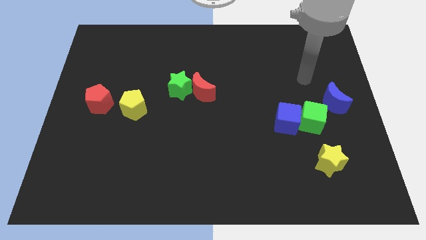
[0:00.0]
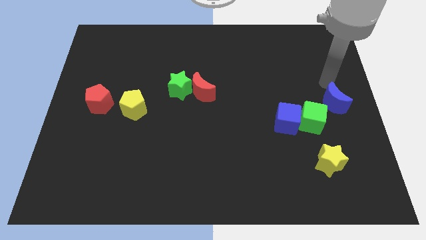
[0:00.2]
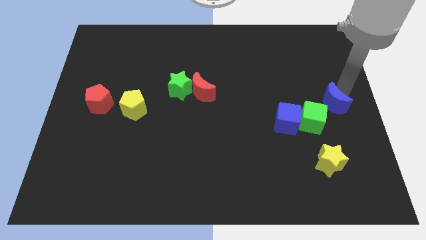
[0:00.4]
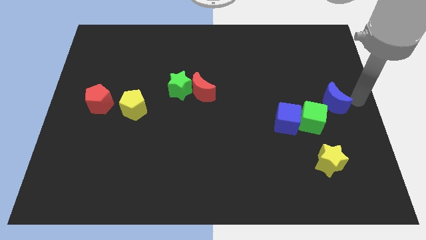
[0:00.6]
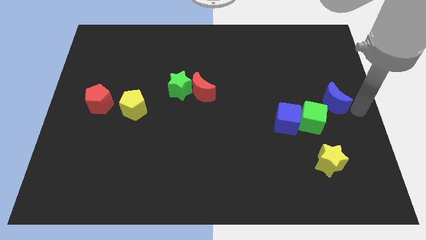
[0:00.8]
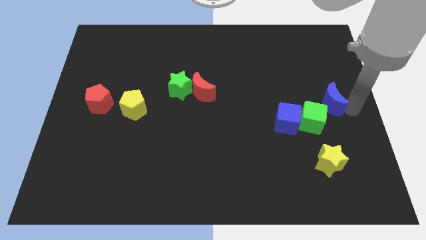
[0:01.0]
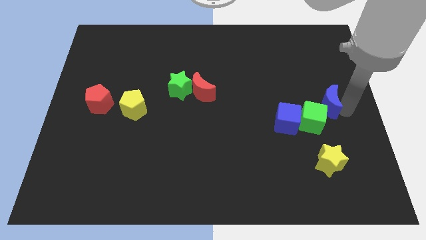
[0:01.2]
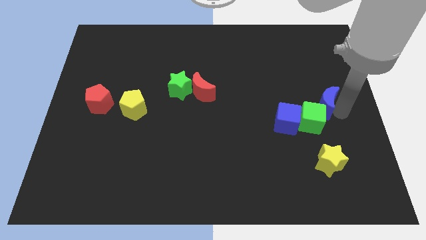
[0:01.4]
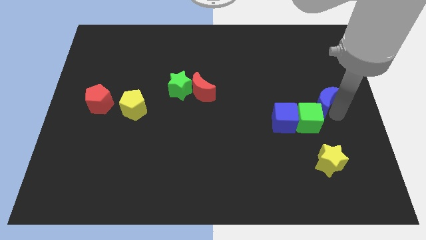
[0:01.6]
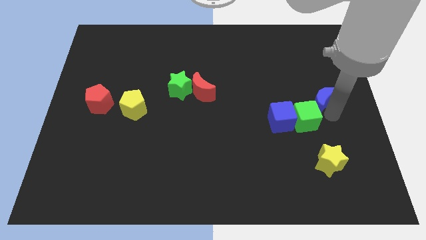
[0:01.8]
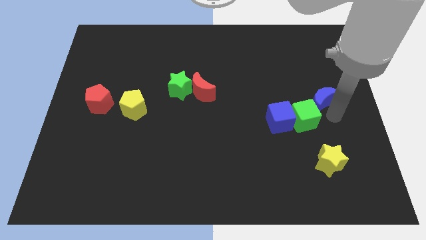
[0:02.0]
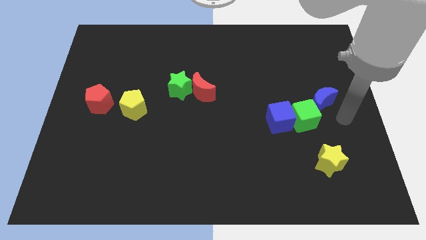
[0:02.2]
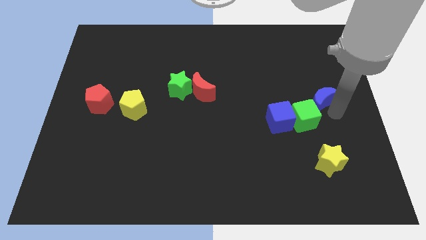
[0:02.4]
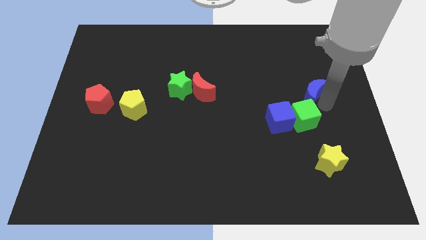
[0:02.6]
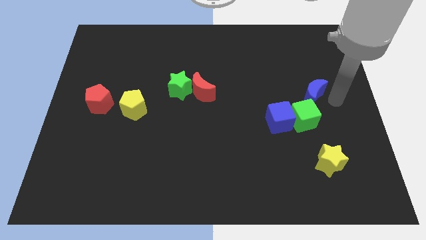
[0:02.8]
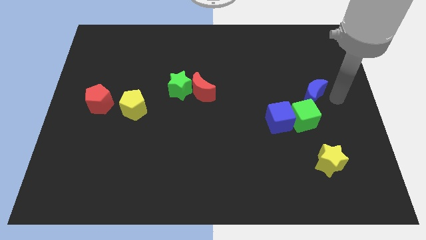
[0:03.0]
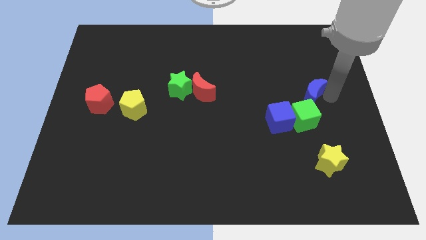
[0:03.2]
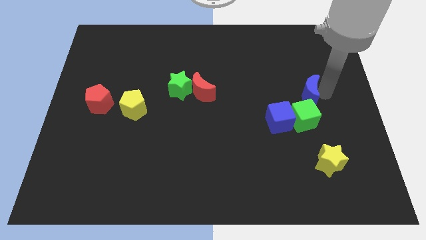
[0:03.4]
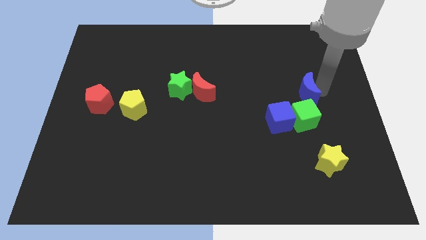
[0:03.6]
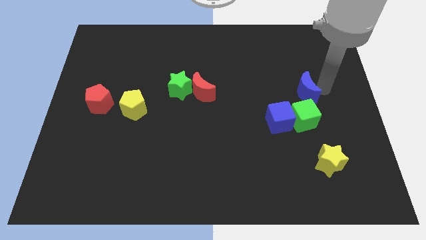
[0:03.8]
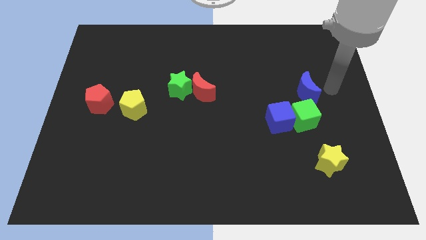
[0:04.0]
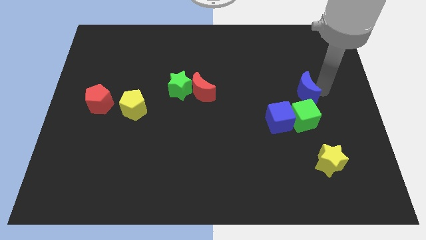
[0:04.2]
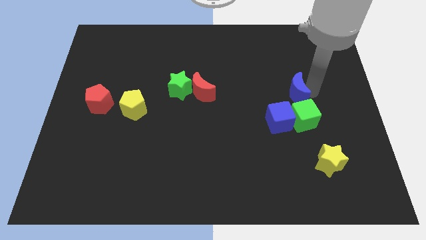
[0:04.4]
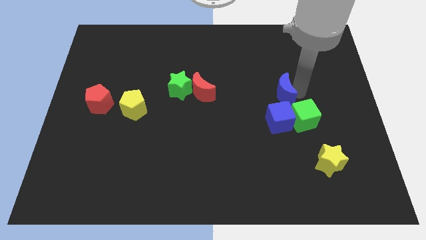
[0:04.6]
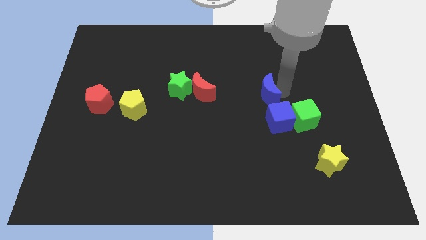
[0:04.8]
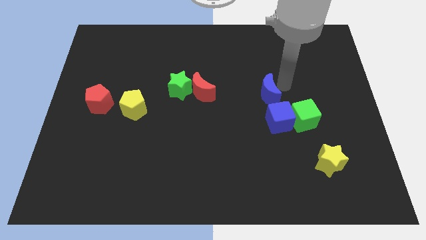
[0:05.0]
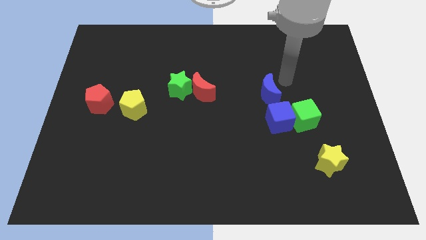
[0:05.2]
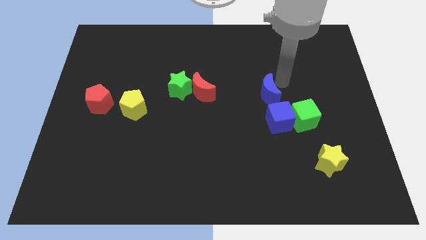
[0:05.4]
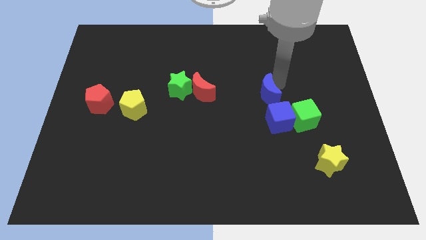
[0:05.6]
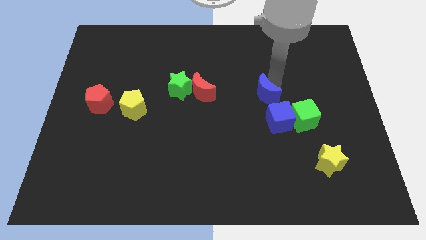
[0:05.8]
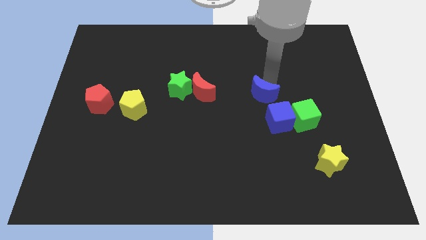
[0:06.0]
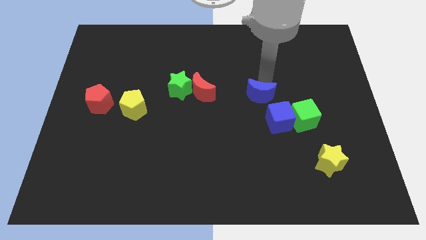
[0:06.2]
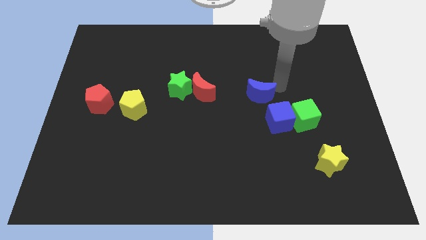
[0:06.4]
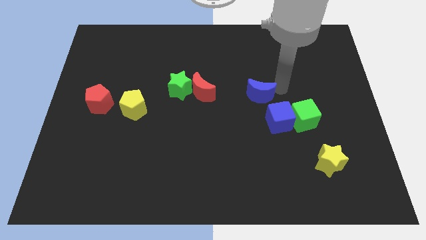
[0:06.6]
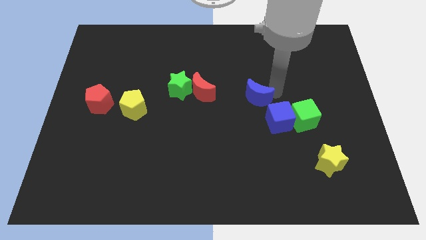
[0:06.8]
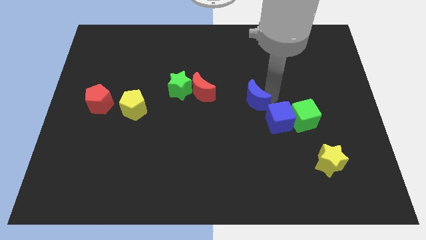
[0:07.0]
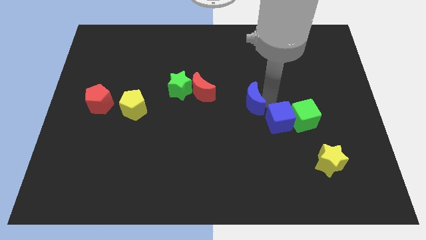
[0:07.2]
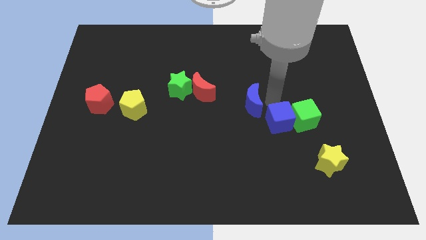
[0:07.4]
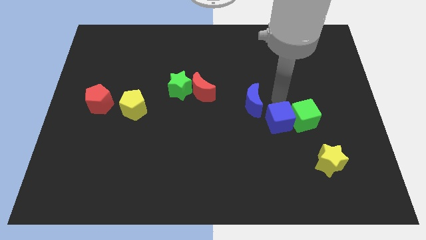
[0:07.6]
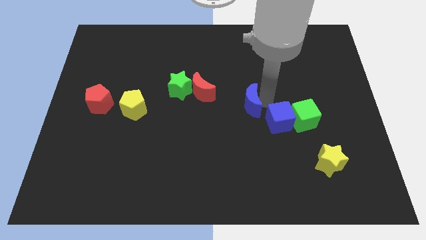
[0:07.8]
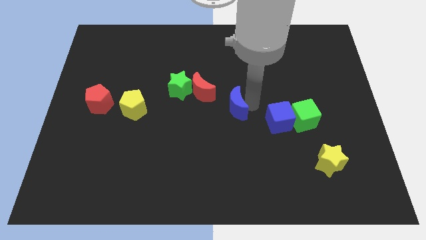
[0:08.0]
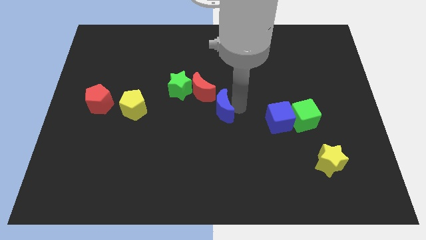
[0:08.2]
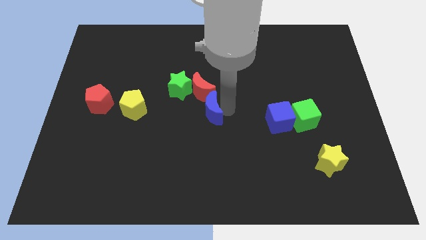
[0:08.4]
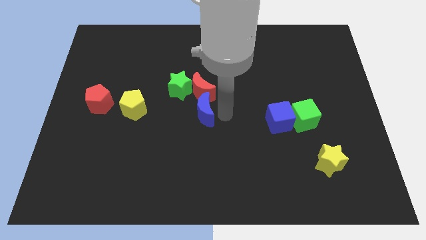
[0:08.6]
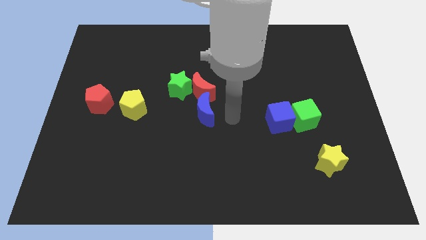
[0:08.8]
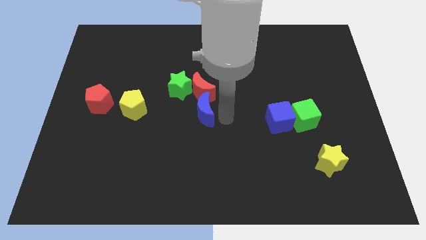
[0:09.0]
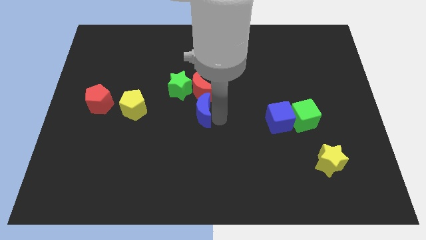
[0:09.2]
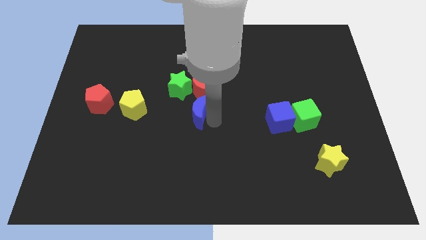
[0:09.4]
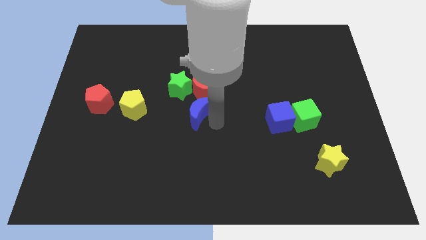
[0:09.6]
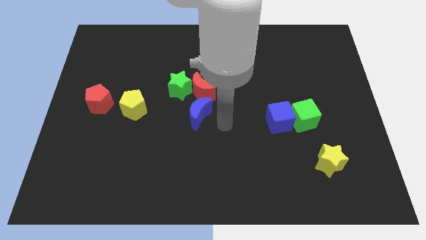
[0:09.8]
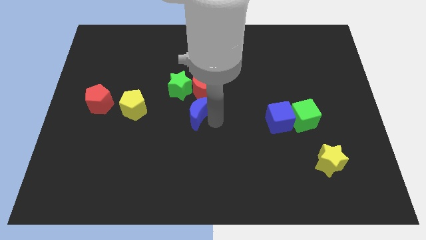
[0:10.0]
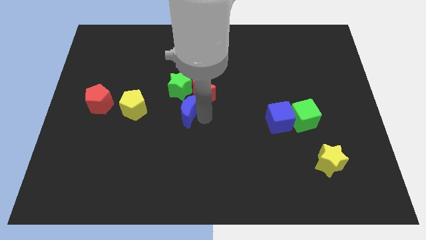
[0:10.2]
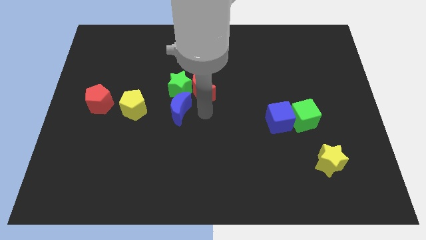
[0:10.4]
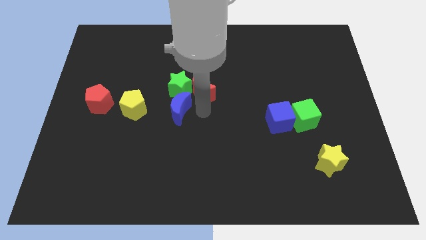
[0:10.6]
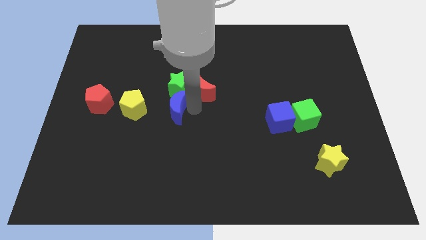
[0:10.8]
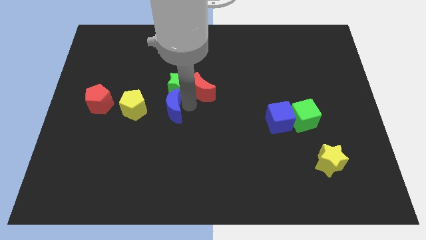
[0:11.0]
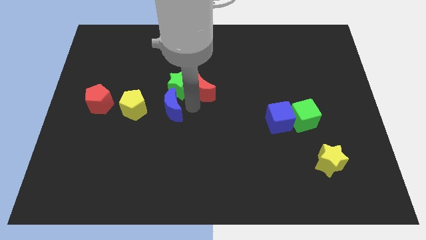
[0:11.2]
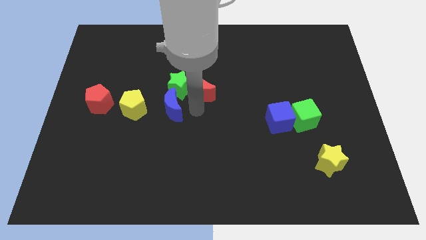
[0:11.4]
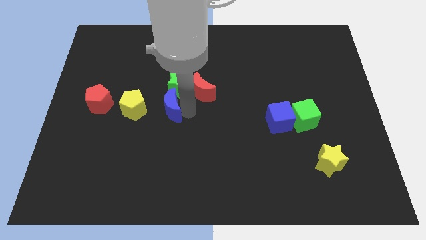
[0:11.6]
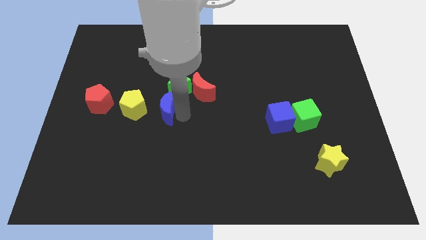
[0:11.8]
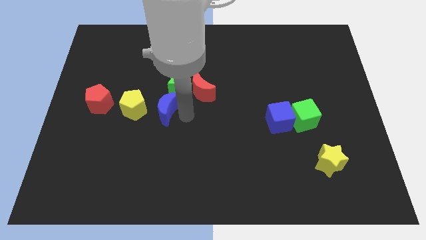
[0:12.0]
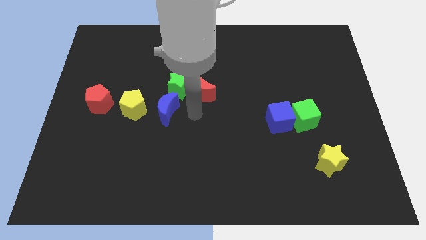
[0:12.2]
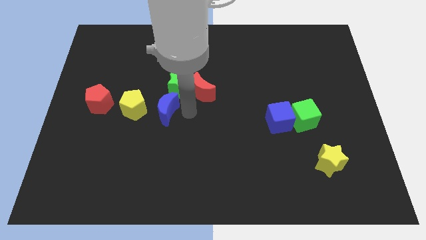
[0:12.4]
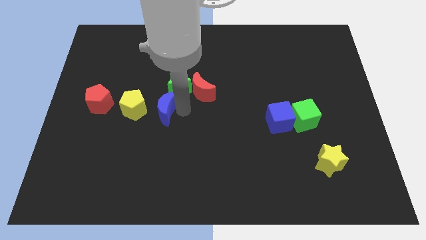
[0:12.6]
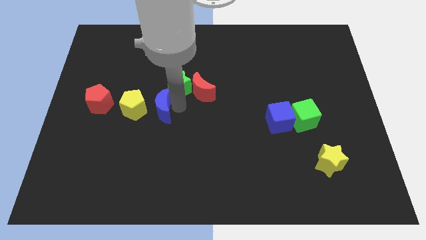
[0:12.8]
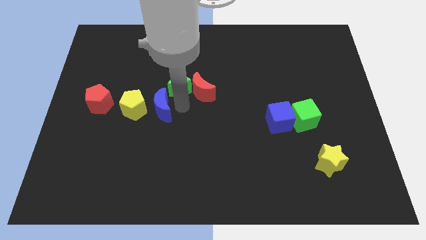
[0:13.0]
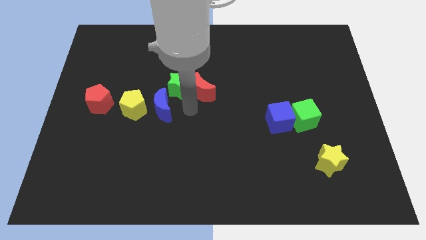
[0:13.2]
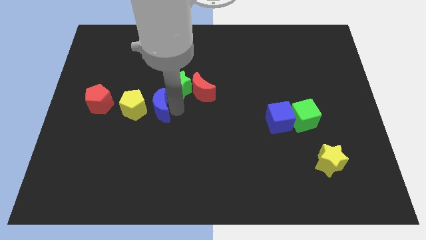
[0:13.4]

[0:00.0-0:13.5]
slide the blue moon towards the yellow pentagon
